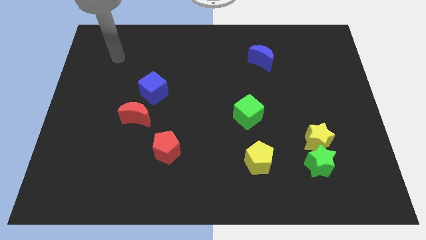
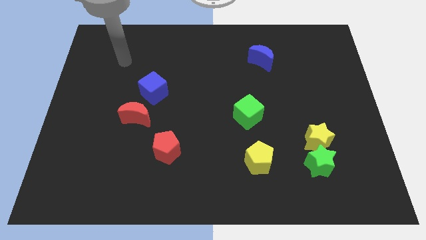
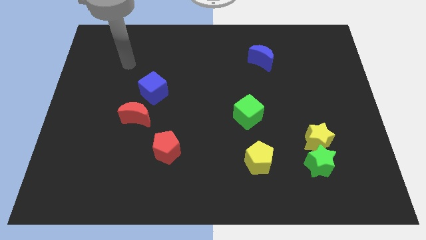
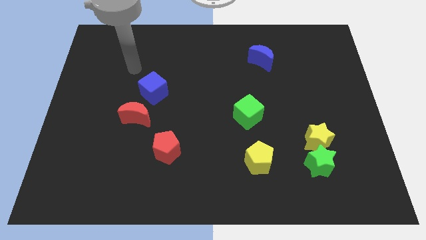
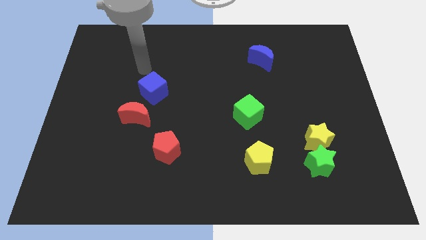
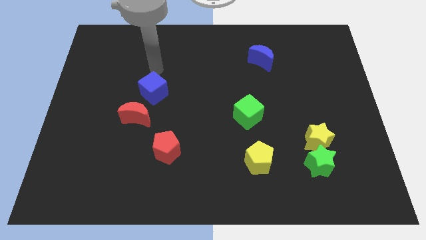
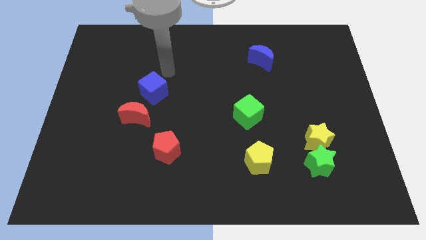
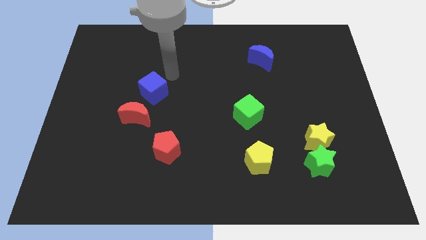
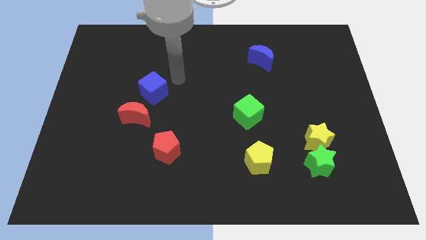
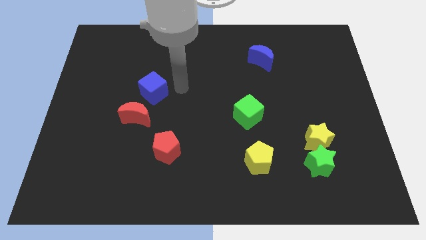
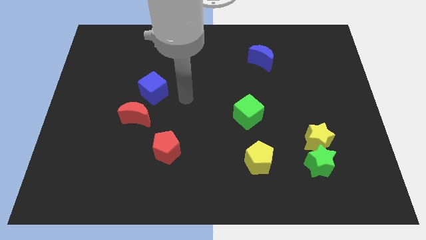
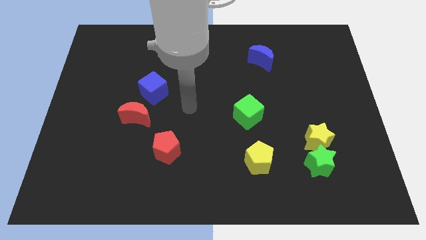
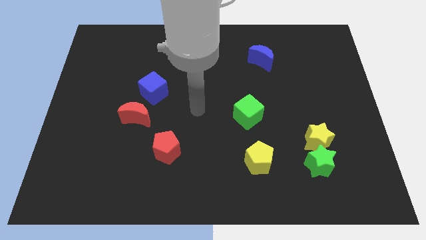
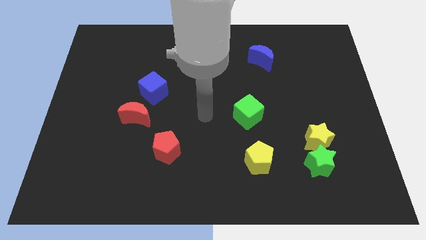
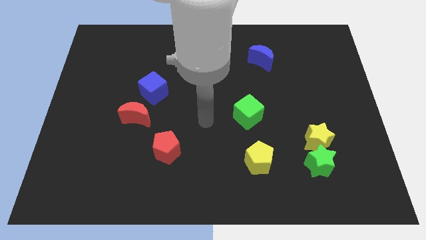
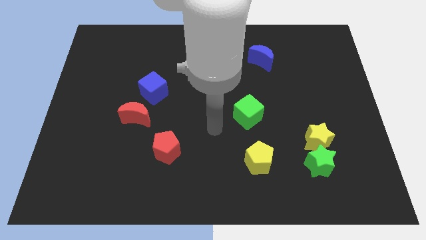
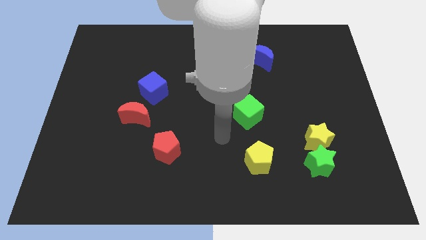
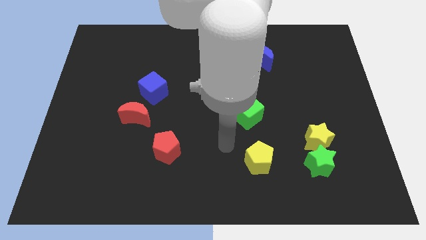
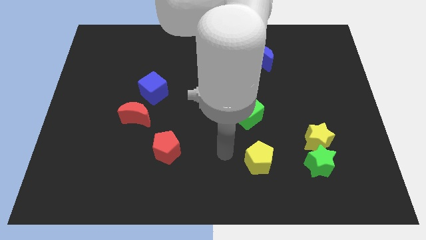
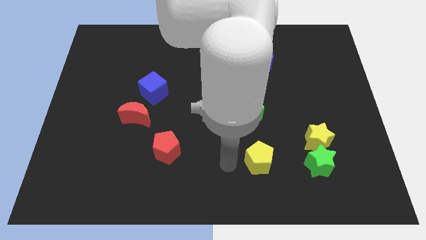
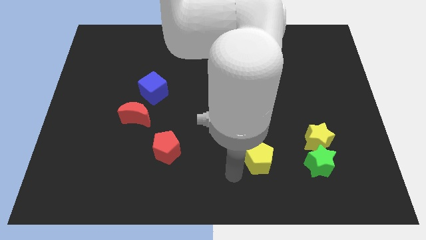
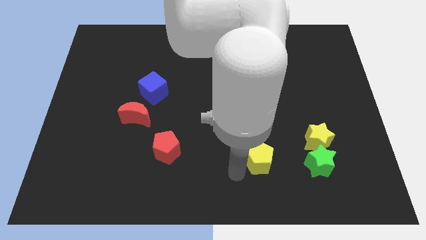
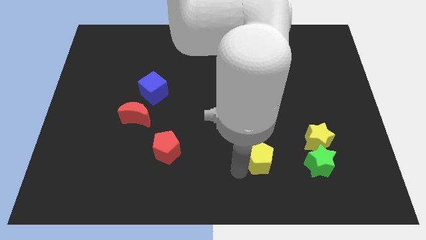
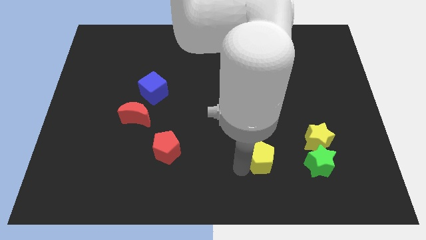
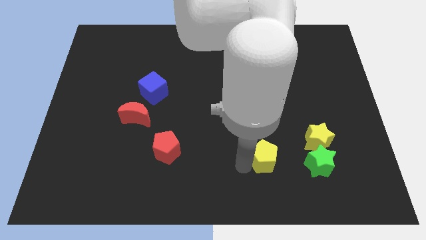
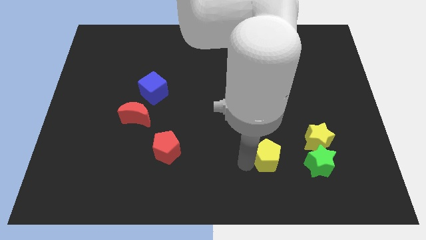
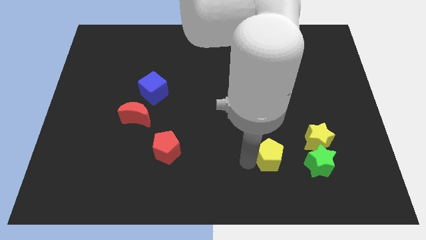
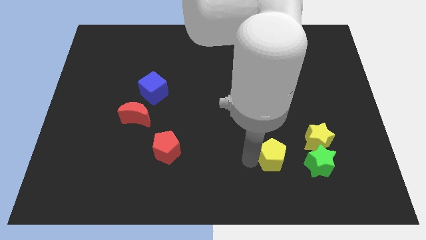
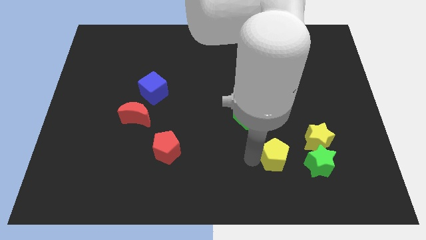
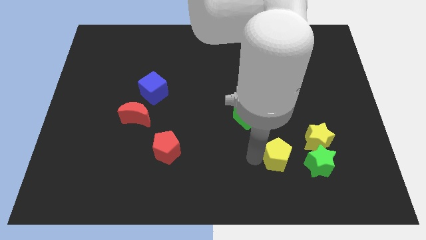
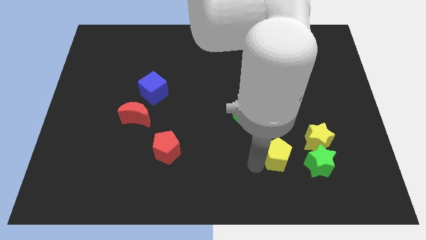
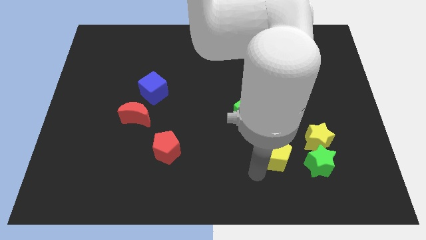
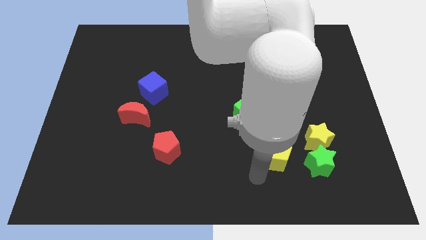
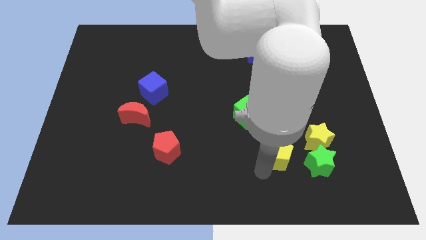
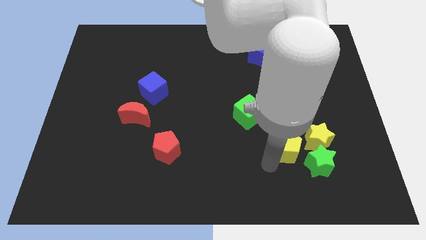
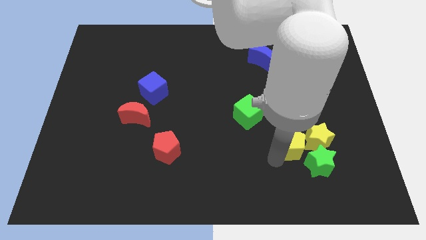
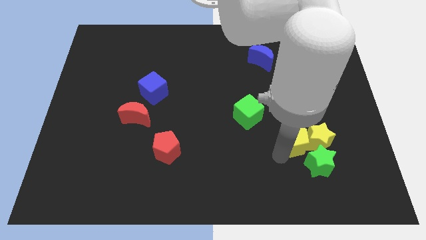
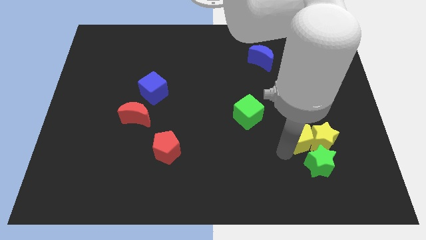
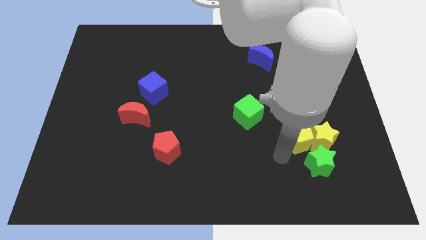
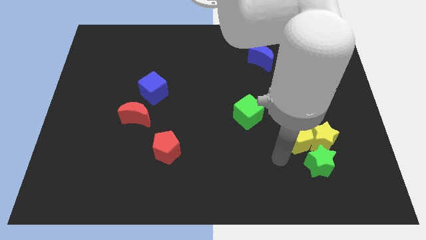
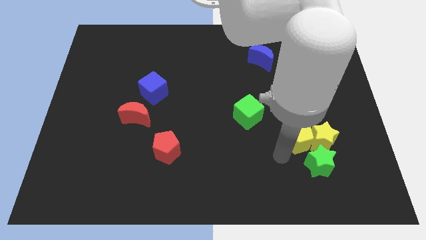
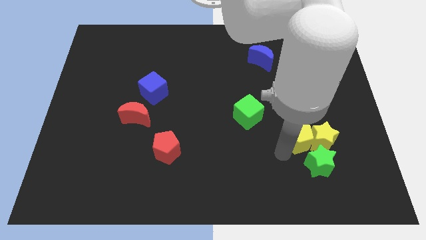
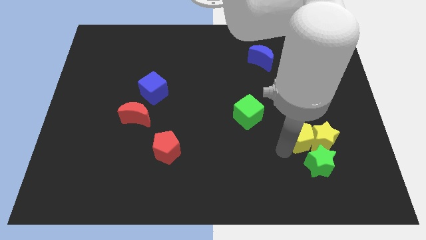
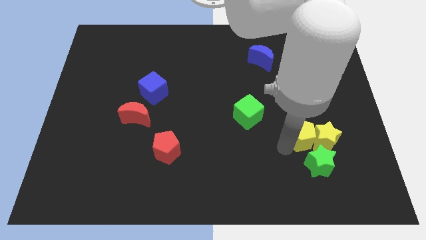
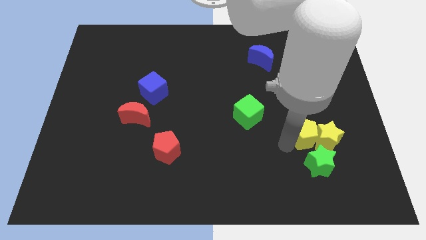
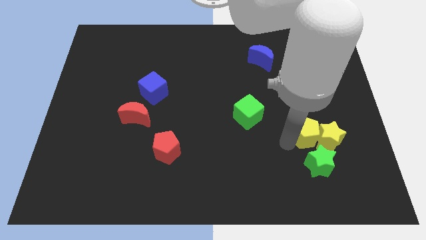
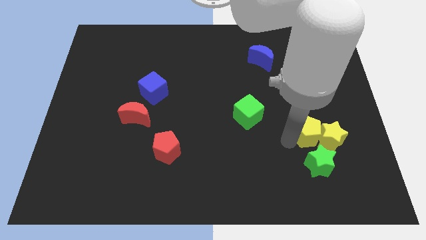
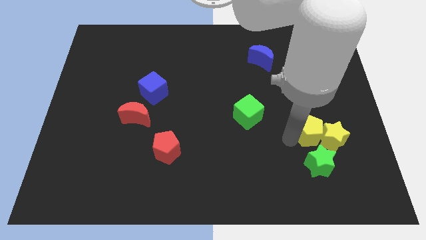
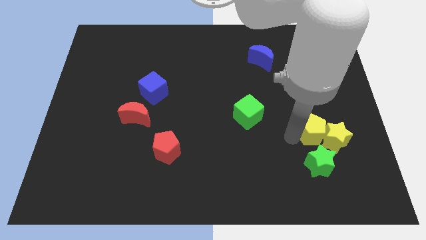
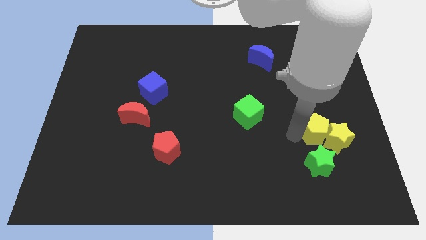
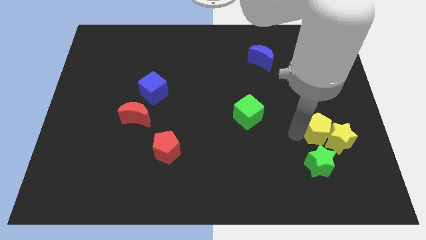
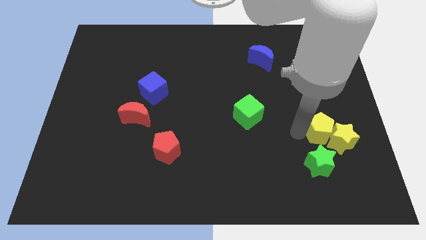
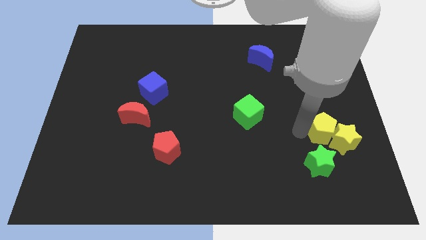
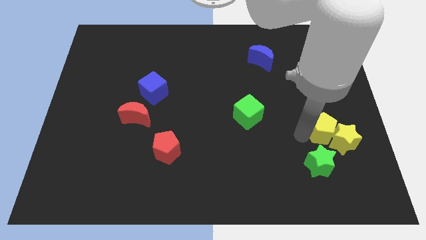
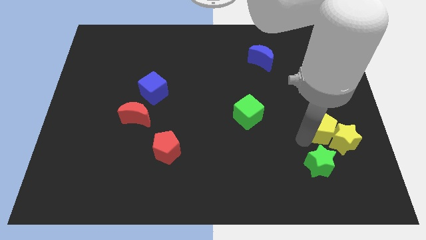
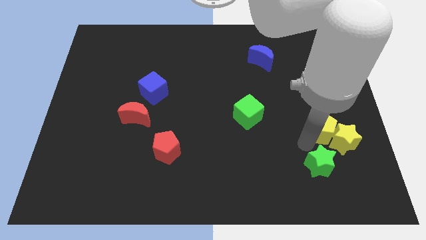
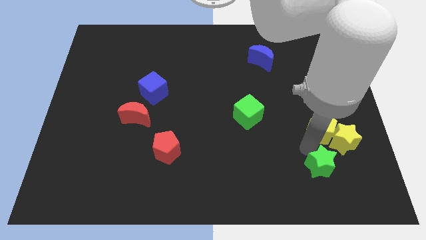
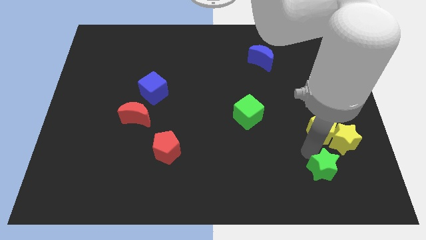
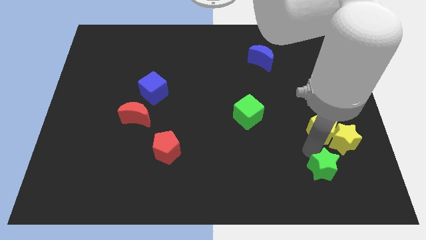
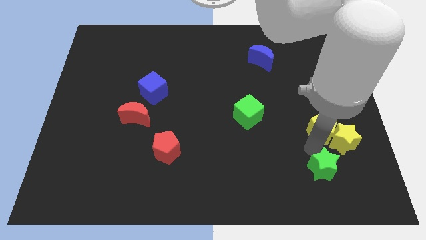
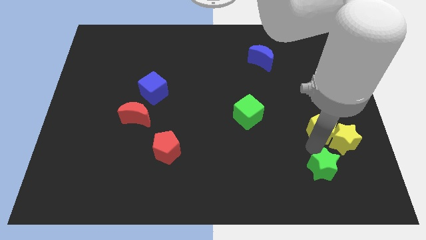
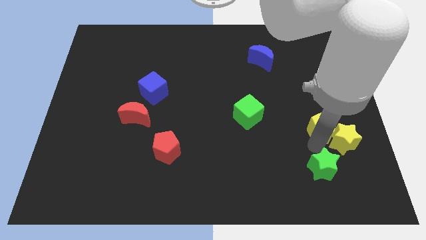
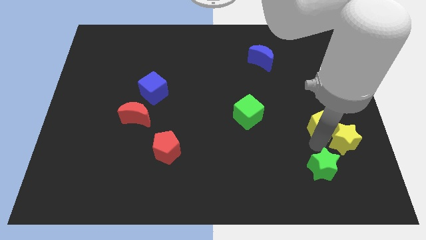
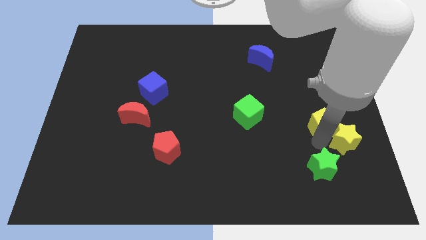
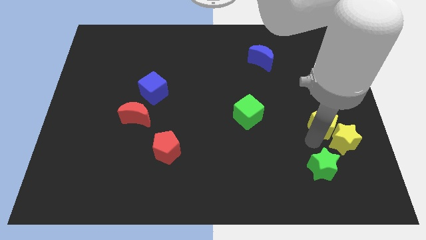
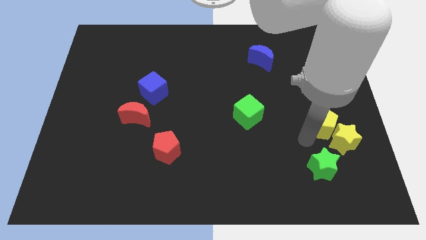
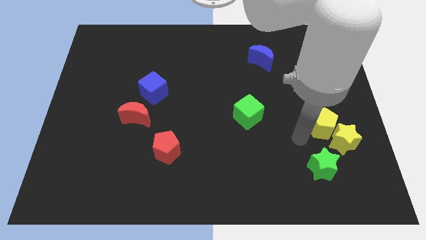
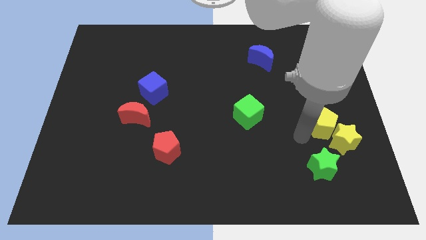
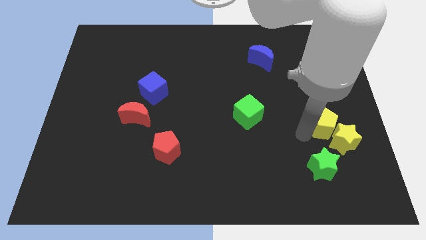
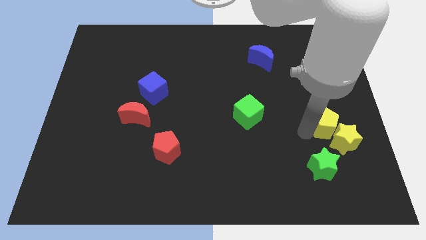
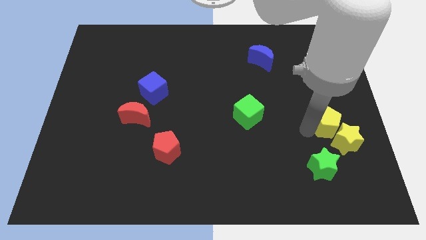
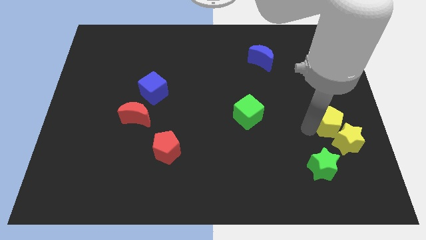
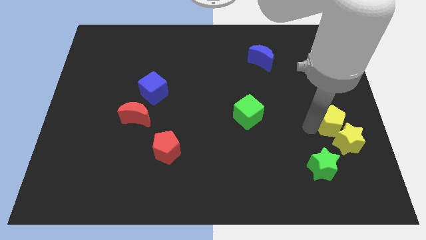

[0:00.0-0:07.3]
slide the yellow pentagon to the center right
